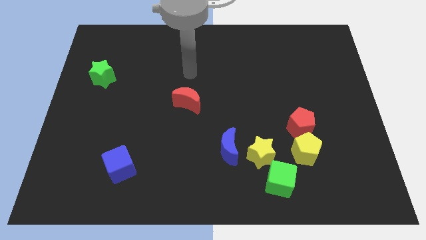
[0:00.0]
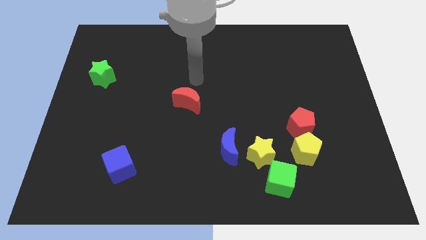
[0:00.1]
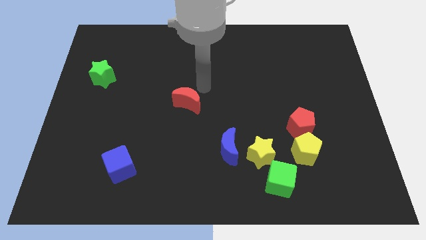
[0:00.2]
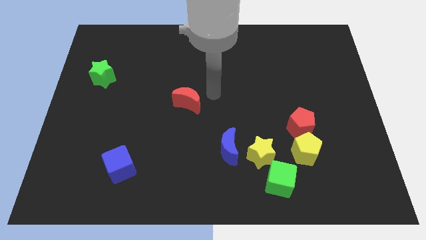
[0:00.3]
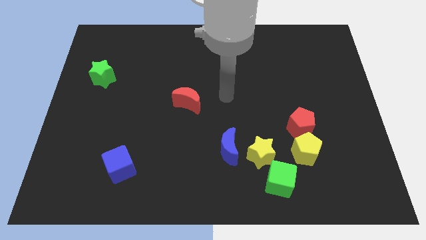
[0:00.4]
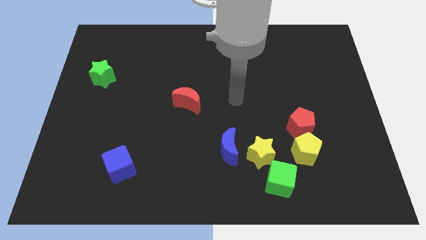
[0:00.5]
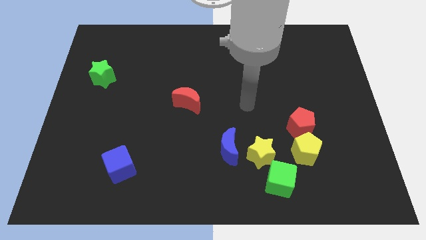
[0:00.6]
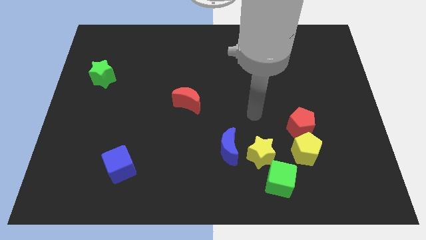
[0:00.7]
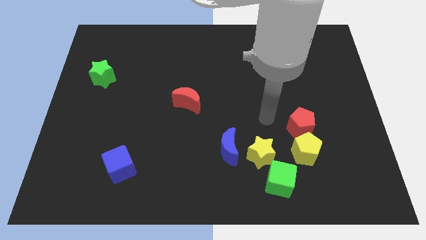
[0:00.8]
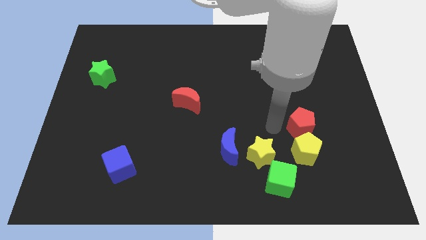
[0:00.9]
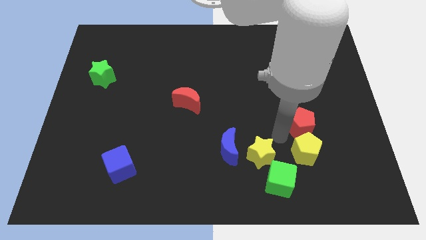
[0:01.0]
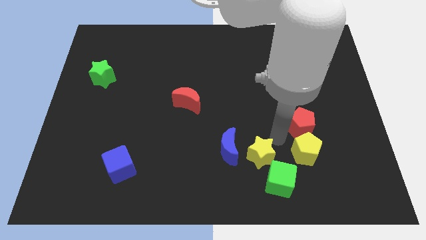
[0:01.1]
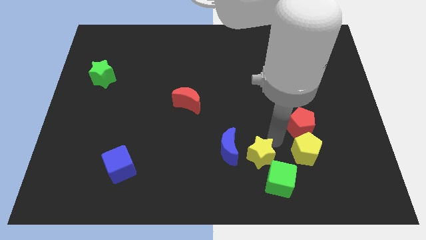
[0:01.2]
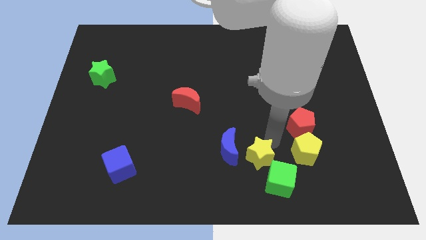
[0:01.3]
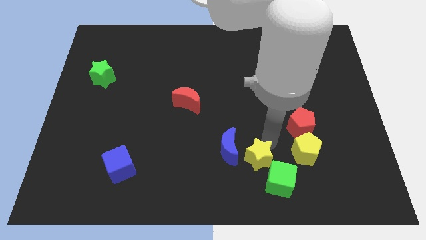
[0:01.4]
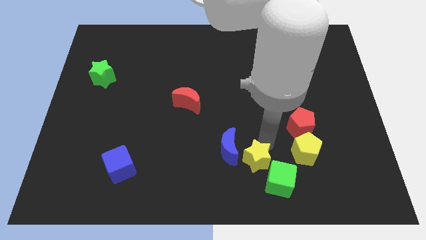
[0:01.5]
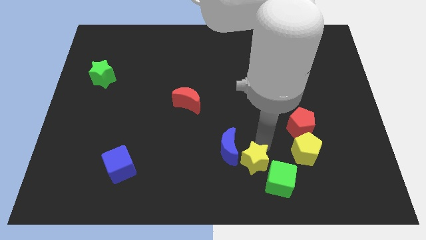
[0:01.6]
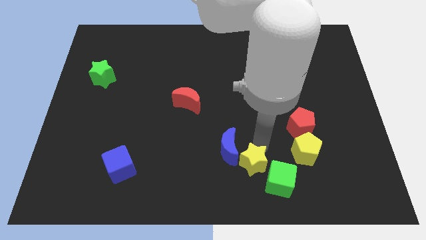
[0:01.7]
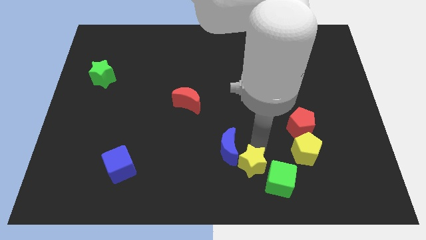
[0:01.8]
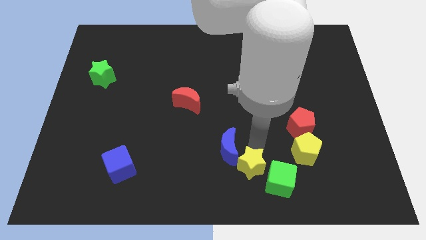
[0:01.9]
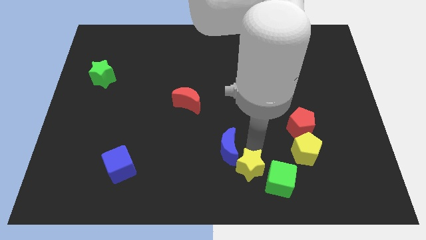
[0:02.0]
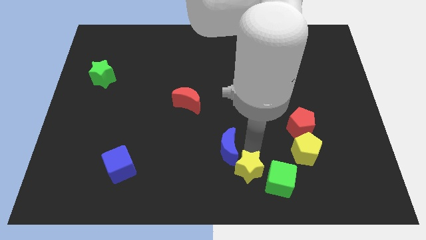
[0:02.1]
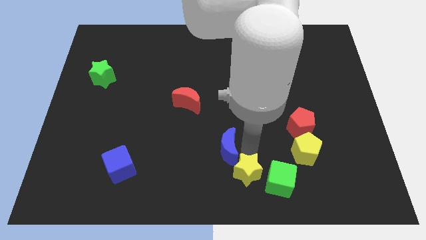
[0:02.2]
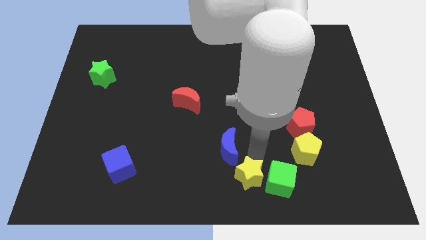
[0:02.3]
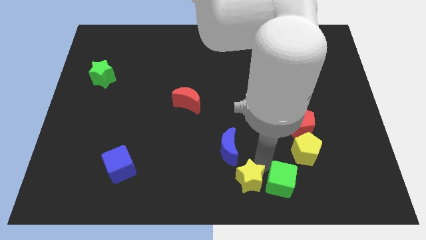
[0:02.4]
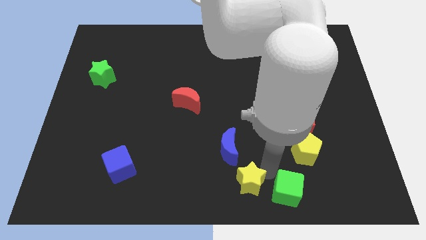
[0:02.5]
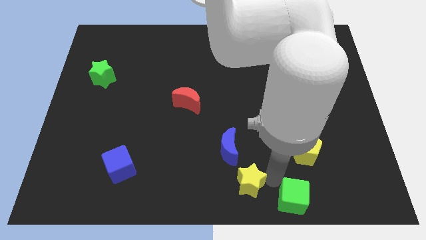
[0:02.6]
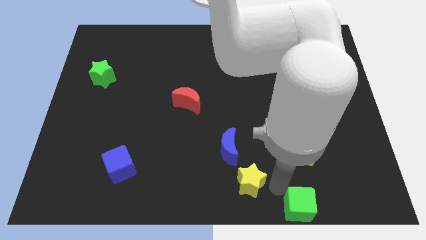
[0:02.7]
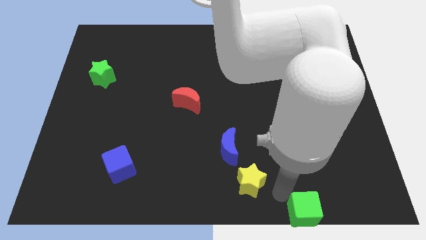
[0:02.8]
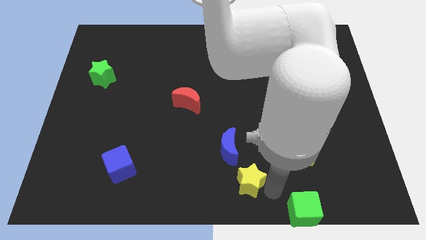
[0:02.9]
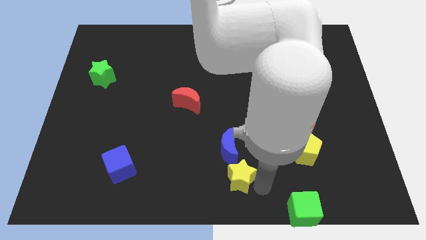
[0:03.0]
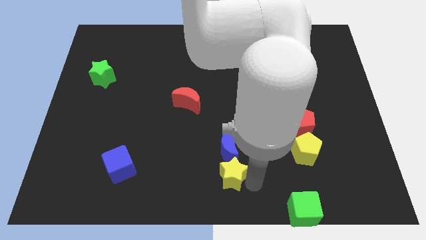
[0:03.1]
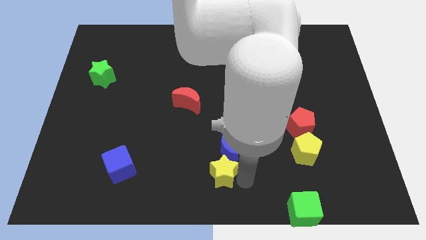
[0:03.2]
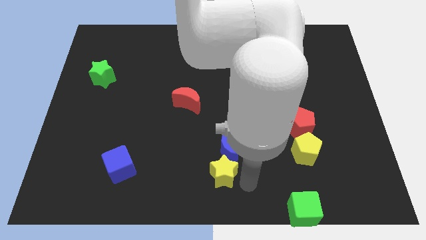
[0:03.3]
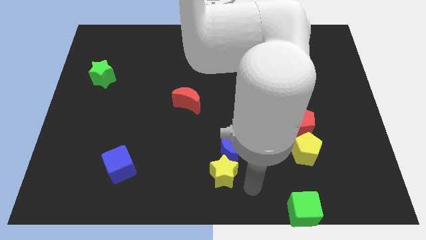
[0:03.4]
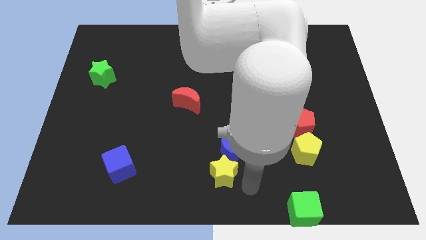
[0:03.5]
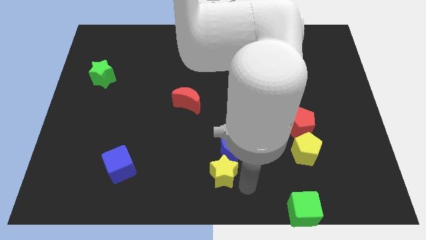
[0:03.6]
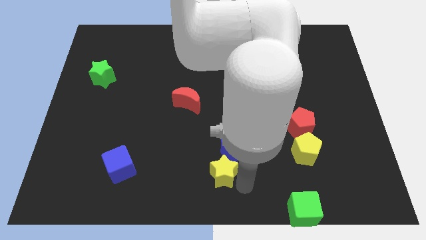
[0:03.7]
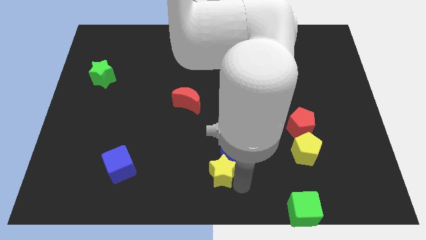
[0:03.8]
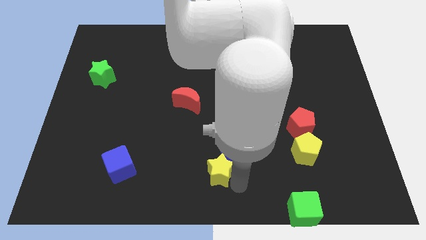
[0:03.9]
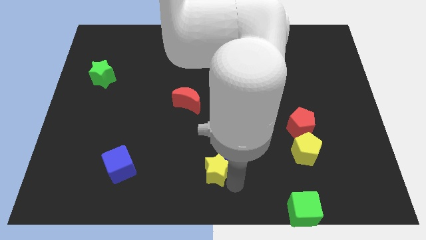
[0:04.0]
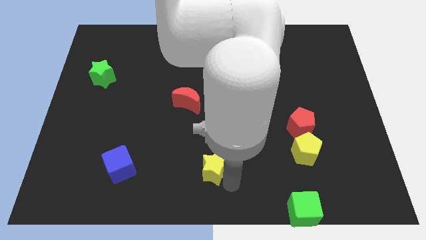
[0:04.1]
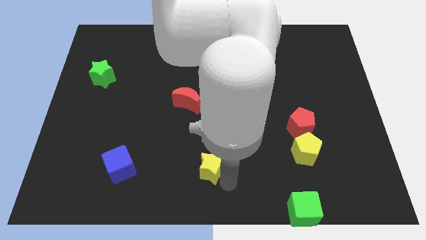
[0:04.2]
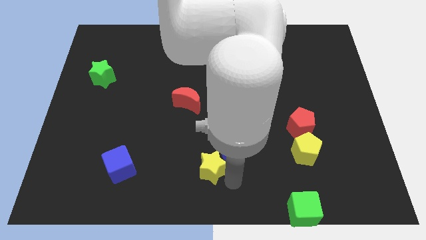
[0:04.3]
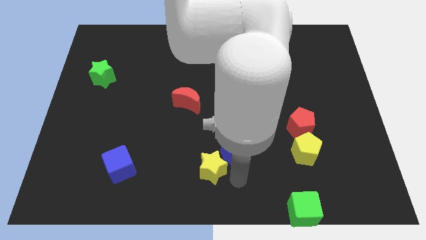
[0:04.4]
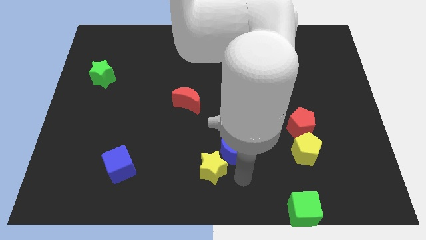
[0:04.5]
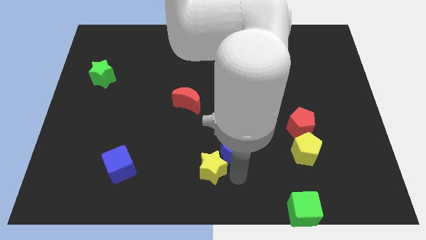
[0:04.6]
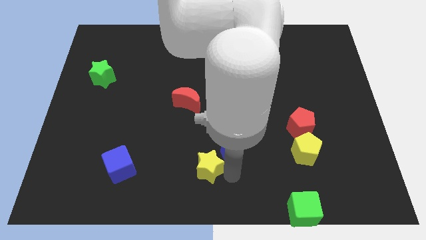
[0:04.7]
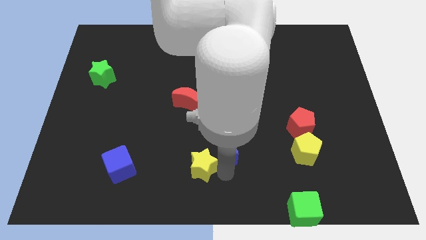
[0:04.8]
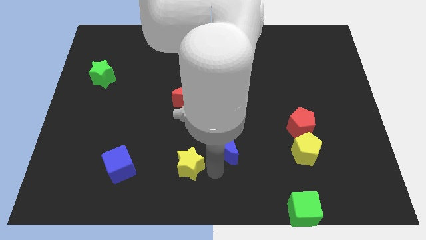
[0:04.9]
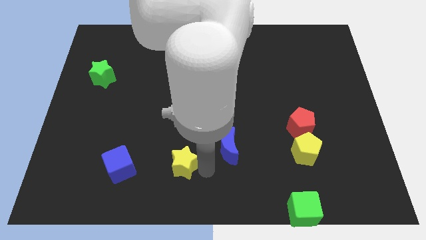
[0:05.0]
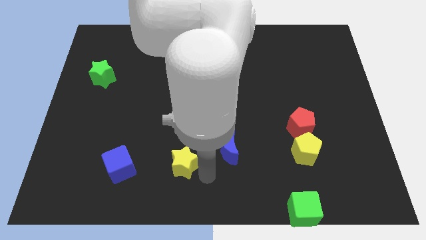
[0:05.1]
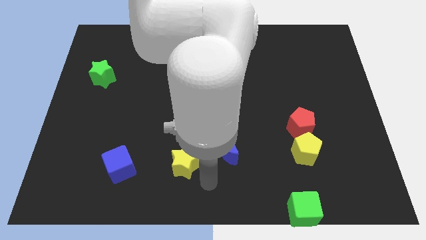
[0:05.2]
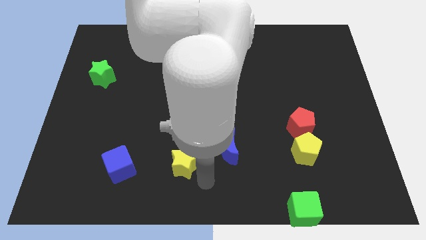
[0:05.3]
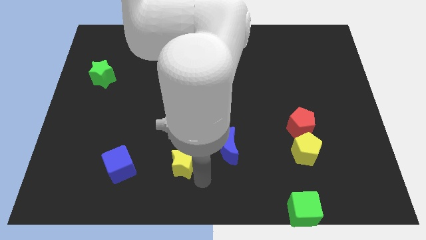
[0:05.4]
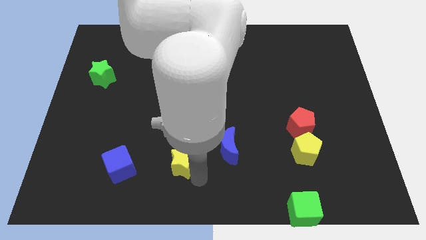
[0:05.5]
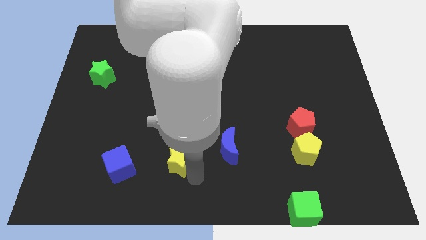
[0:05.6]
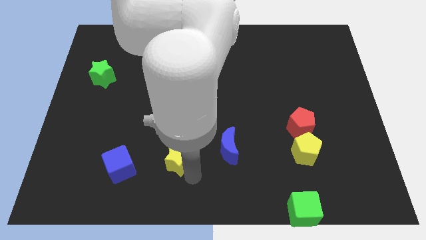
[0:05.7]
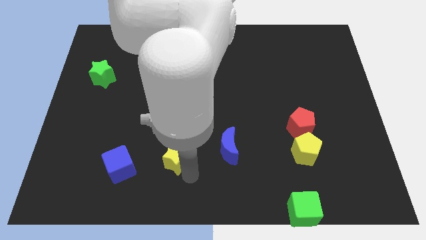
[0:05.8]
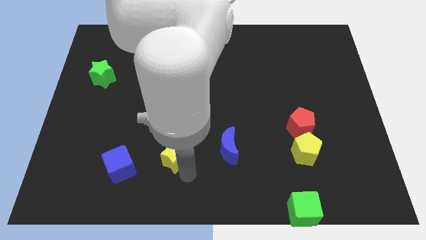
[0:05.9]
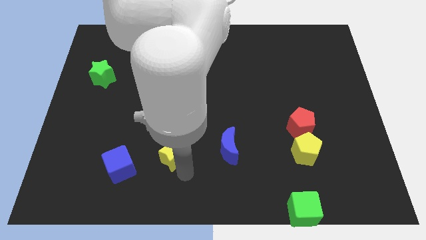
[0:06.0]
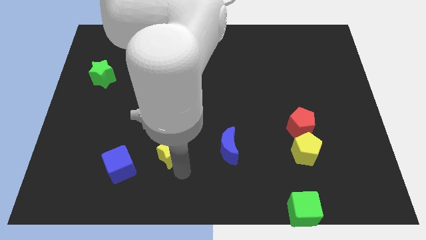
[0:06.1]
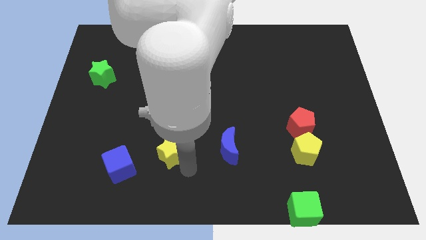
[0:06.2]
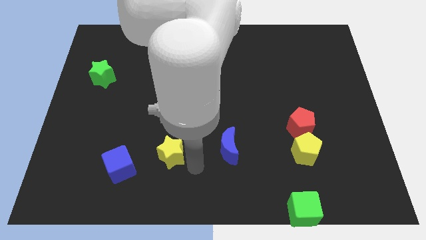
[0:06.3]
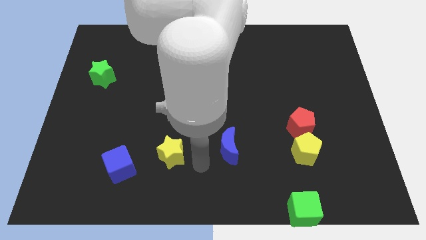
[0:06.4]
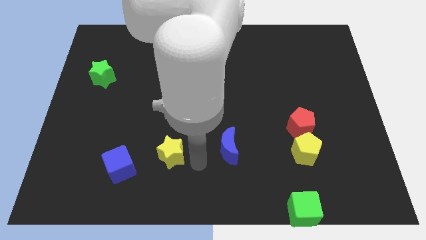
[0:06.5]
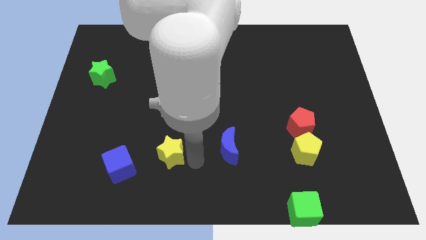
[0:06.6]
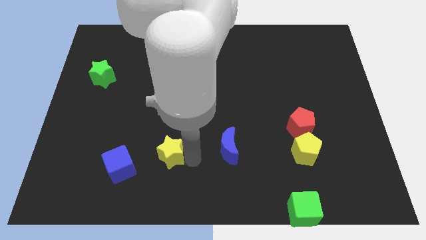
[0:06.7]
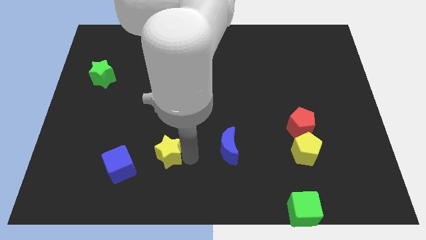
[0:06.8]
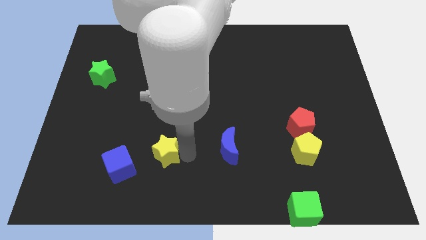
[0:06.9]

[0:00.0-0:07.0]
slide the yellow star to the top right of the blue cube
